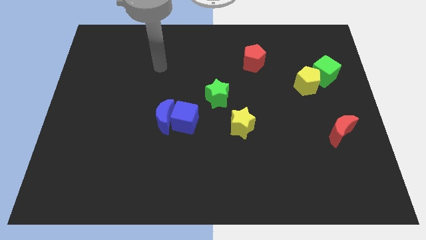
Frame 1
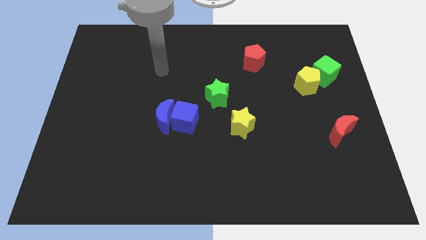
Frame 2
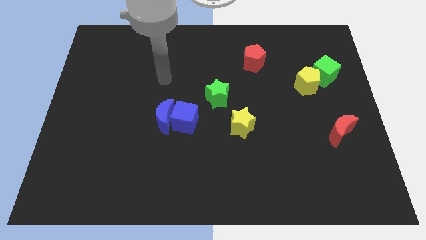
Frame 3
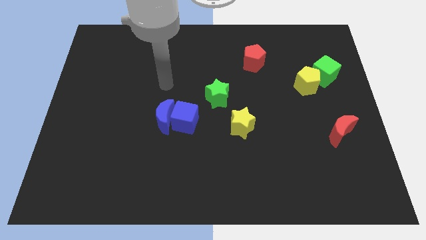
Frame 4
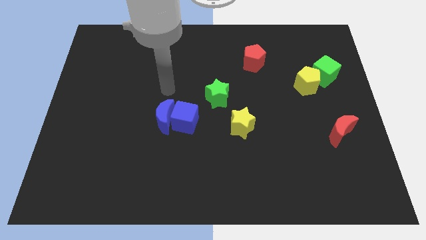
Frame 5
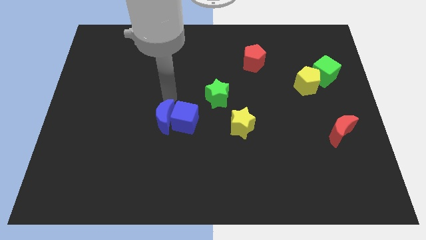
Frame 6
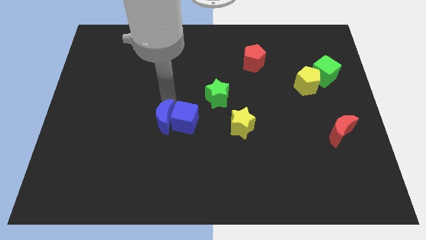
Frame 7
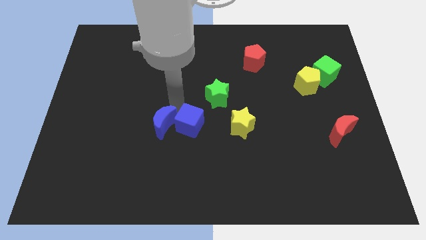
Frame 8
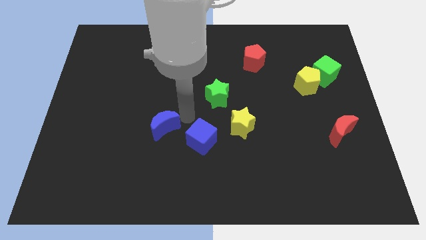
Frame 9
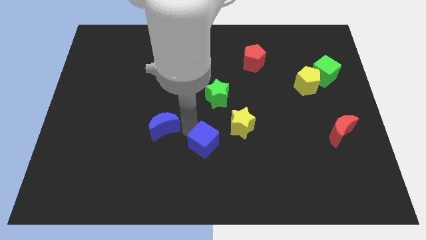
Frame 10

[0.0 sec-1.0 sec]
separate the blue moon from the blue cube

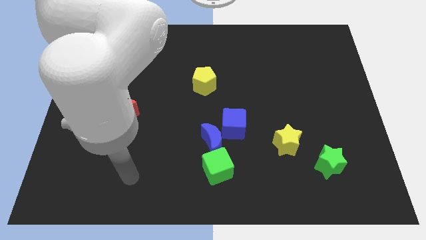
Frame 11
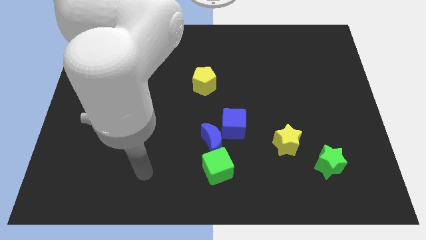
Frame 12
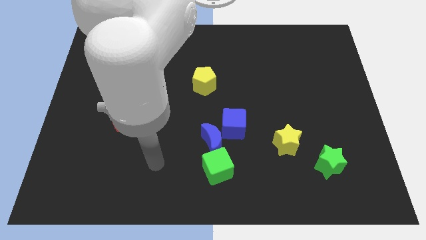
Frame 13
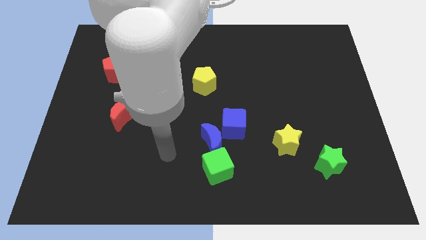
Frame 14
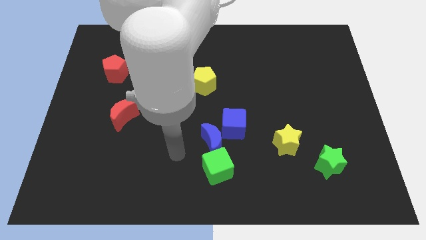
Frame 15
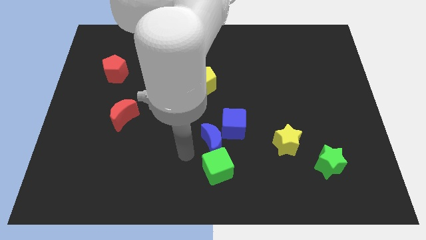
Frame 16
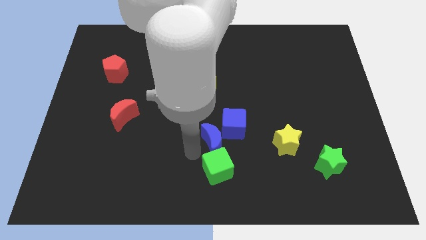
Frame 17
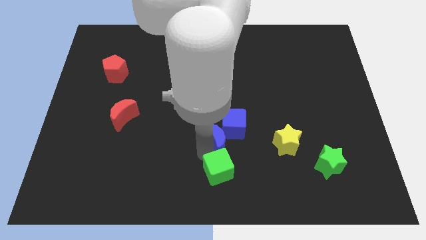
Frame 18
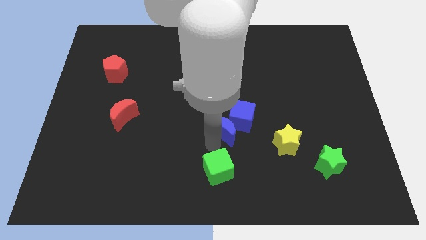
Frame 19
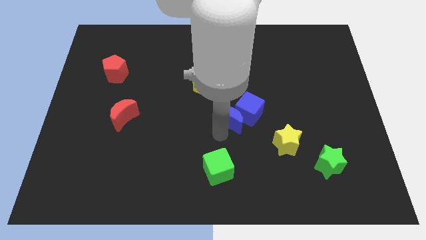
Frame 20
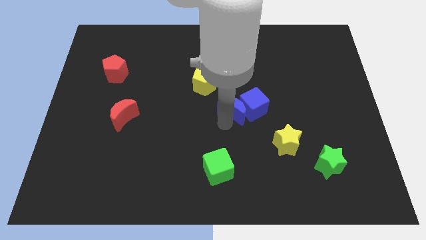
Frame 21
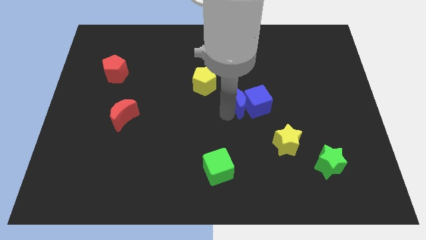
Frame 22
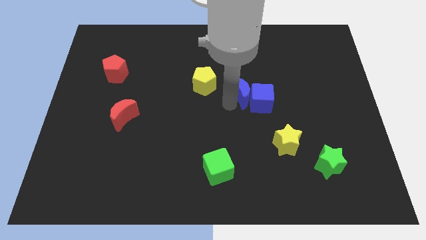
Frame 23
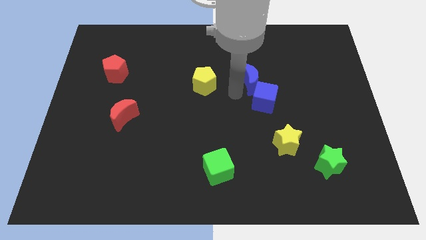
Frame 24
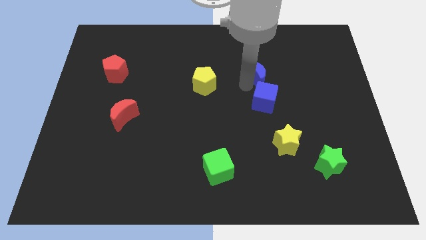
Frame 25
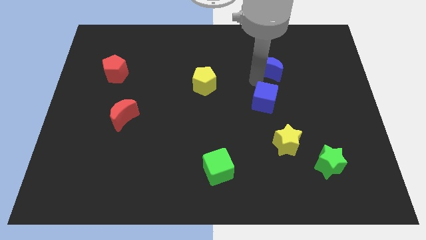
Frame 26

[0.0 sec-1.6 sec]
separate the blue cube from the blue moon

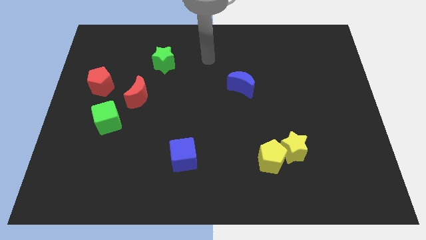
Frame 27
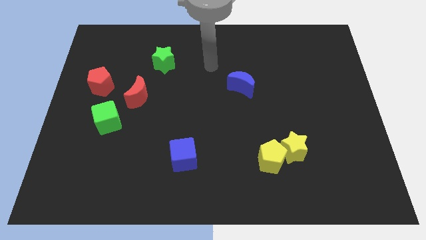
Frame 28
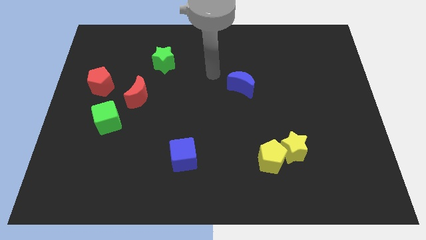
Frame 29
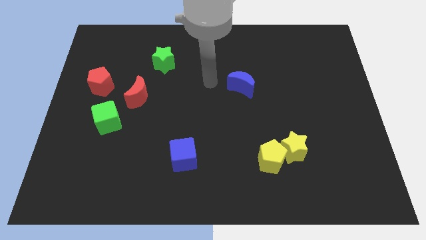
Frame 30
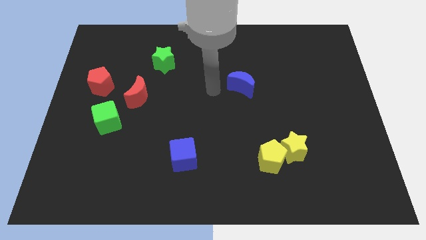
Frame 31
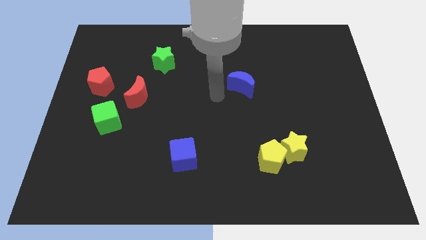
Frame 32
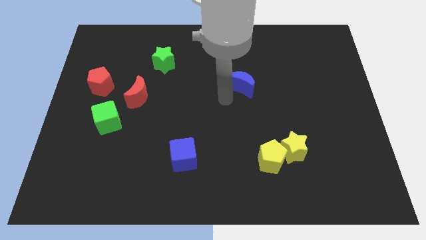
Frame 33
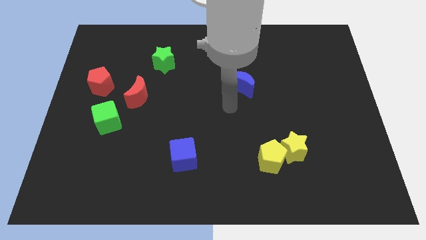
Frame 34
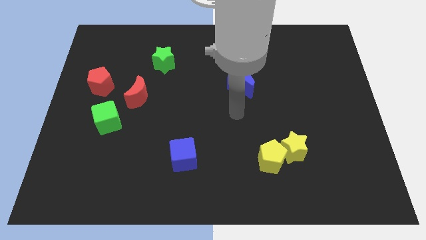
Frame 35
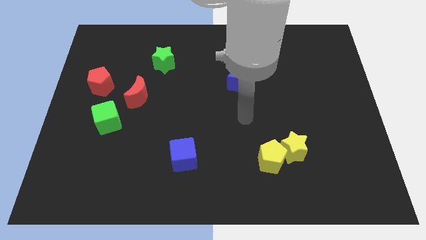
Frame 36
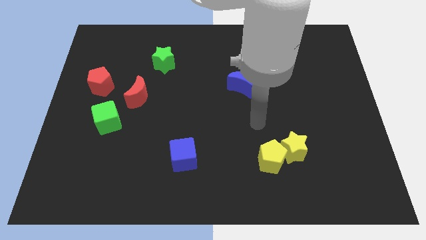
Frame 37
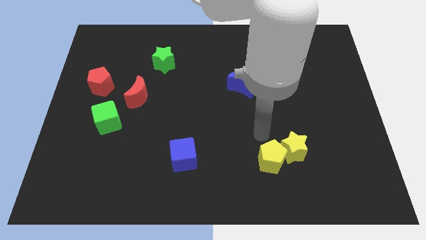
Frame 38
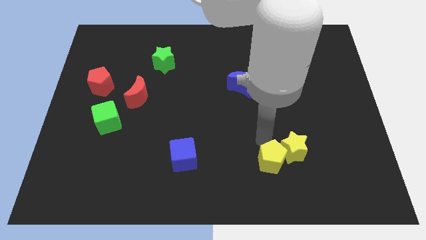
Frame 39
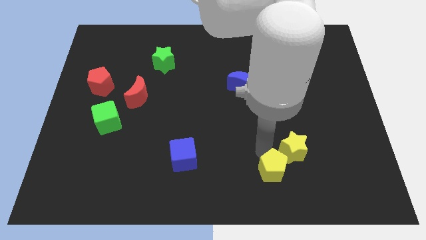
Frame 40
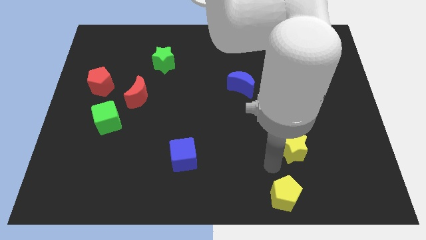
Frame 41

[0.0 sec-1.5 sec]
move the yellow star away from the yellow pentagon

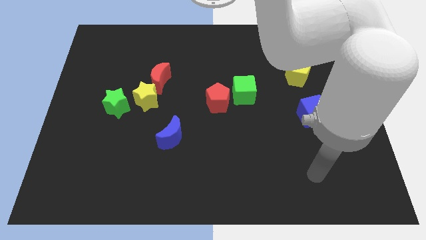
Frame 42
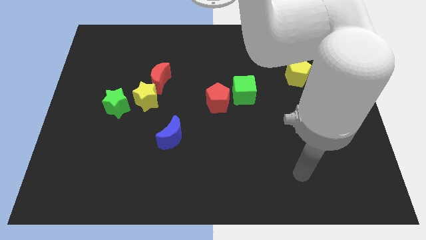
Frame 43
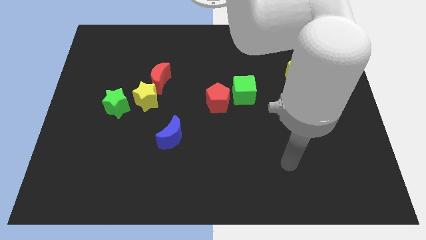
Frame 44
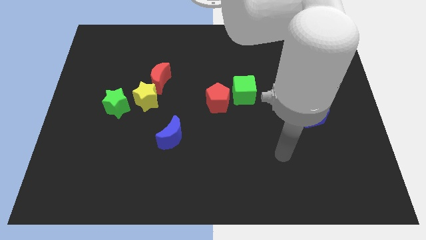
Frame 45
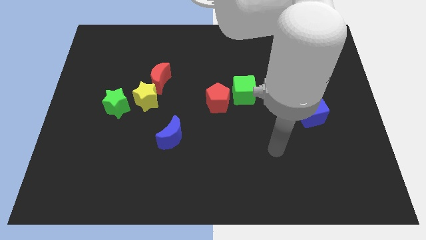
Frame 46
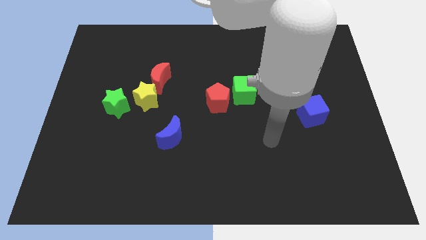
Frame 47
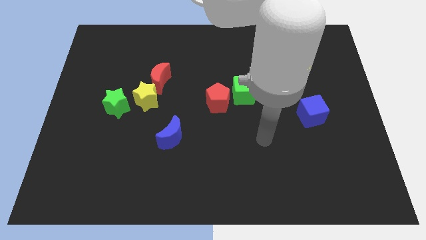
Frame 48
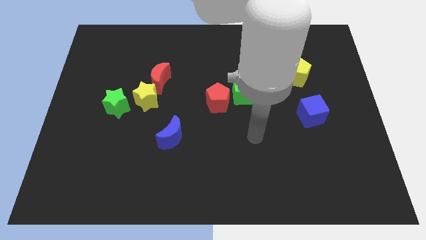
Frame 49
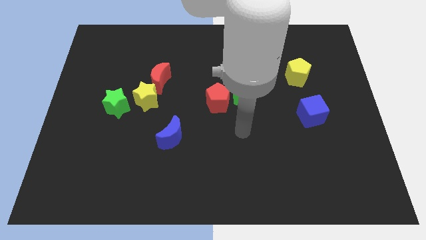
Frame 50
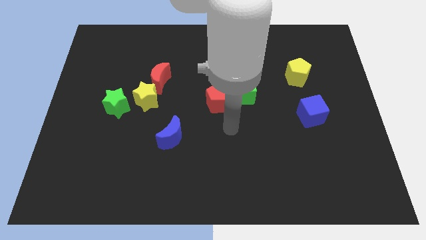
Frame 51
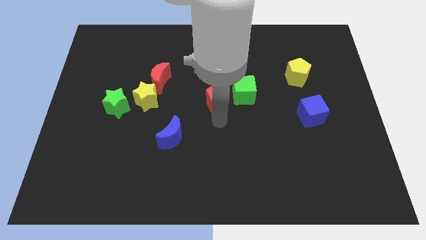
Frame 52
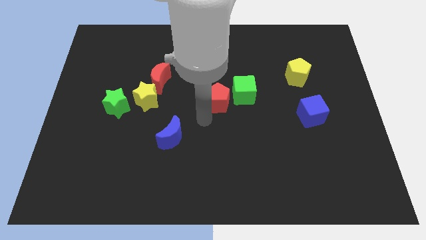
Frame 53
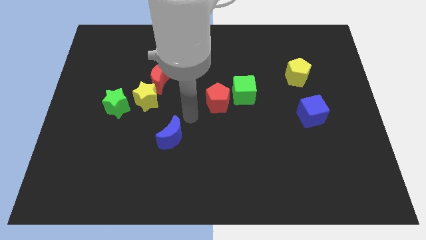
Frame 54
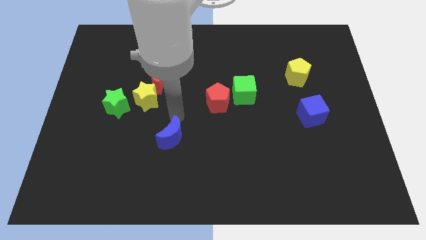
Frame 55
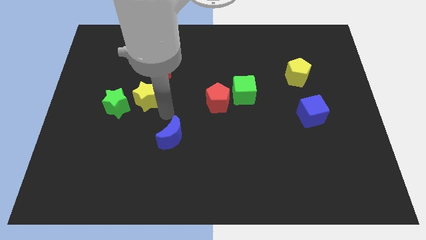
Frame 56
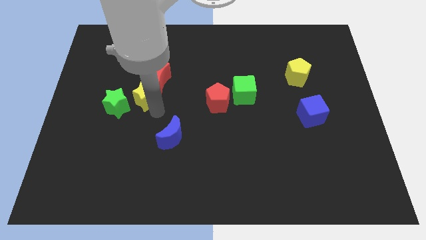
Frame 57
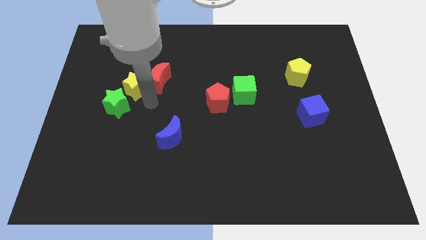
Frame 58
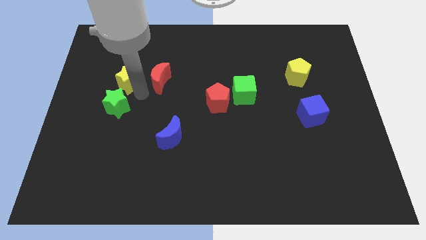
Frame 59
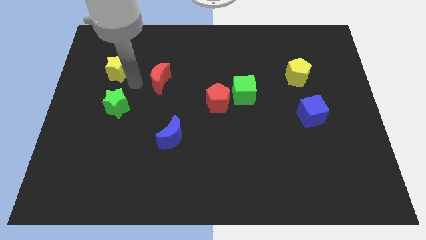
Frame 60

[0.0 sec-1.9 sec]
move the red moon away from the yellow star

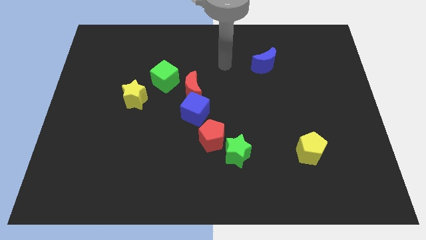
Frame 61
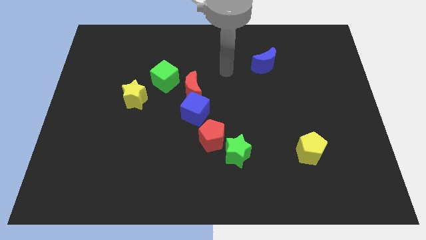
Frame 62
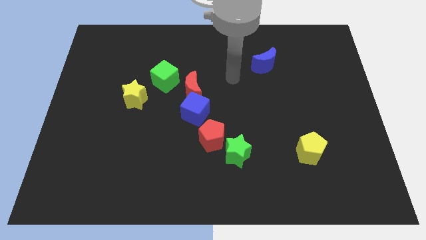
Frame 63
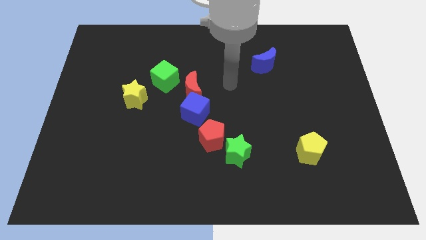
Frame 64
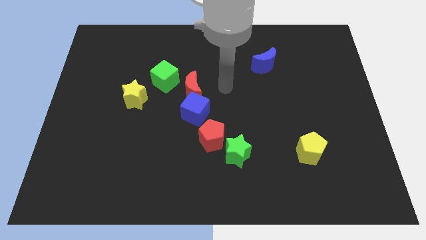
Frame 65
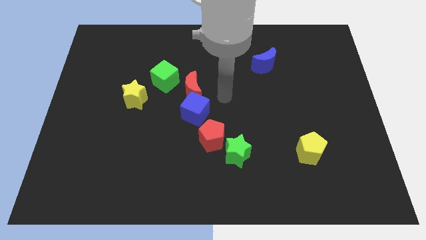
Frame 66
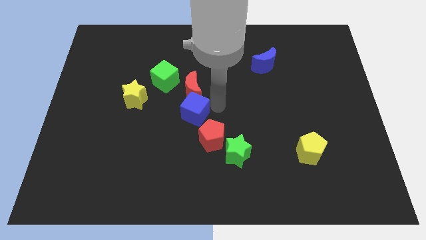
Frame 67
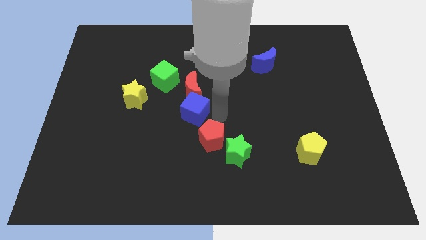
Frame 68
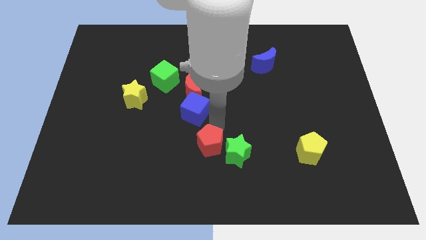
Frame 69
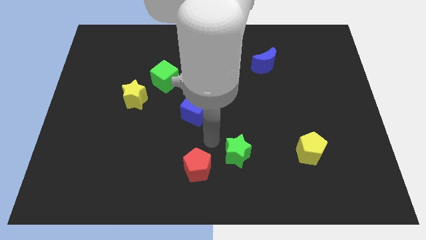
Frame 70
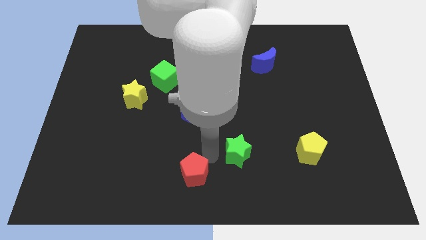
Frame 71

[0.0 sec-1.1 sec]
move the green star away from the red pentagon

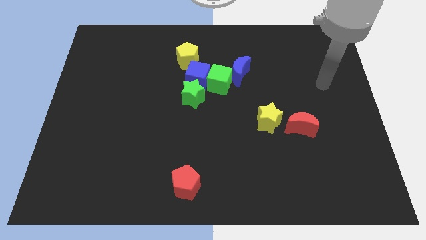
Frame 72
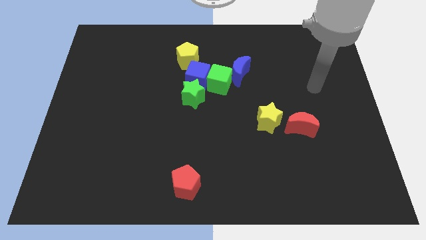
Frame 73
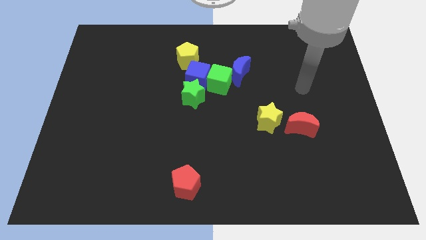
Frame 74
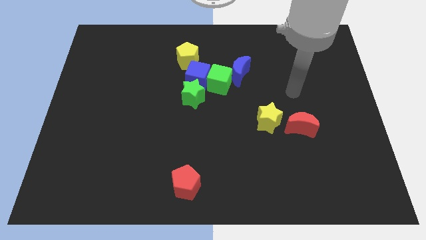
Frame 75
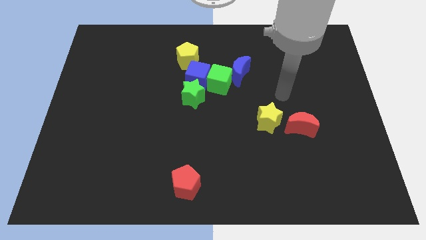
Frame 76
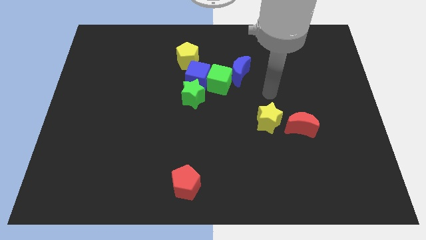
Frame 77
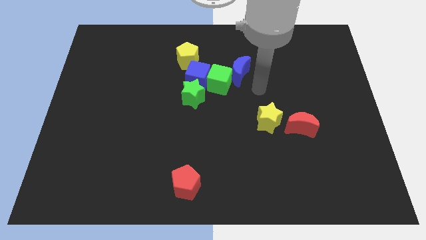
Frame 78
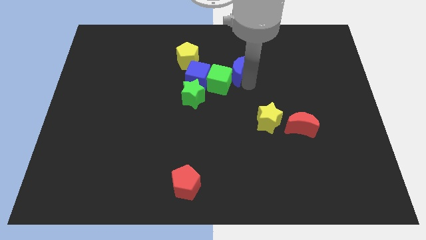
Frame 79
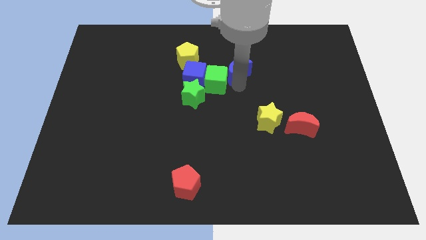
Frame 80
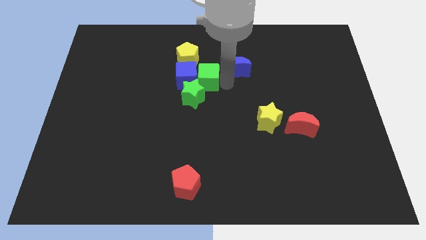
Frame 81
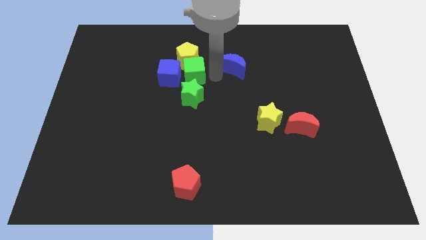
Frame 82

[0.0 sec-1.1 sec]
pull the blue moon apart from the green cube

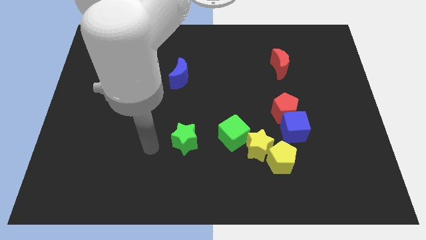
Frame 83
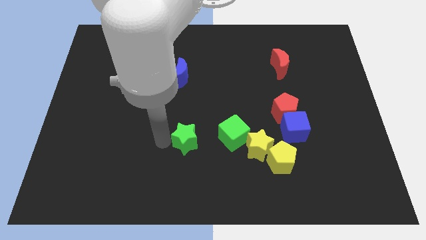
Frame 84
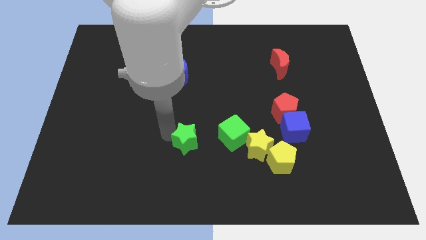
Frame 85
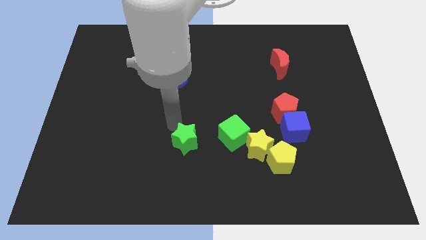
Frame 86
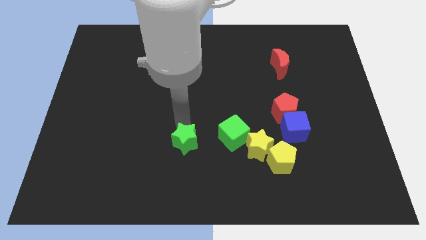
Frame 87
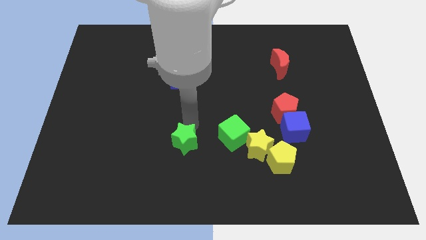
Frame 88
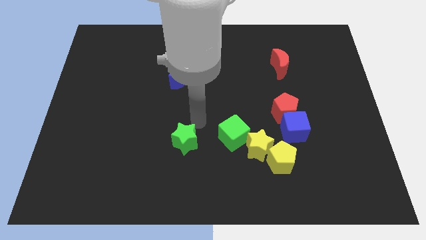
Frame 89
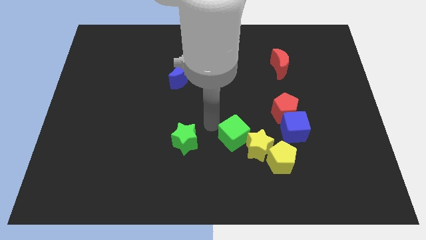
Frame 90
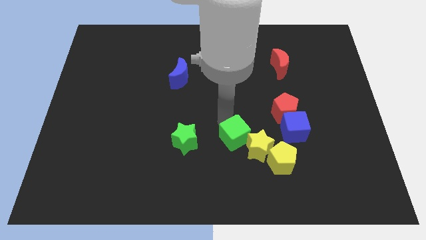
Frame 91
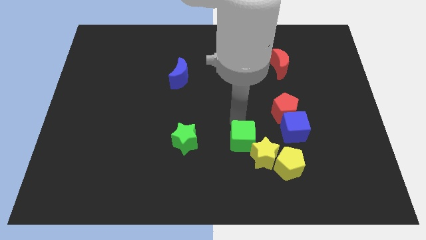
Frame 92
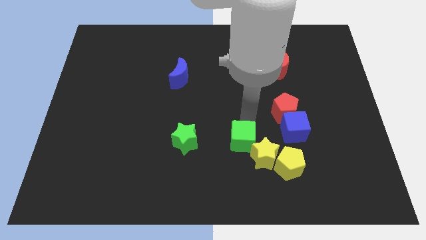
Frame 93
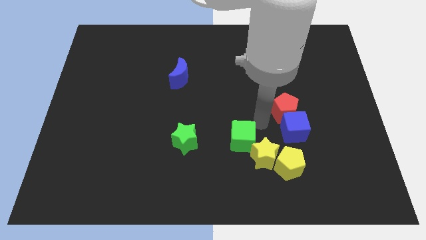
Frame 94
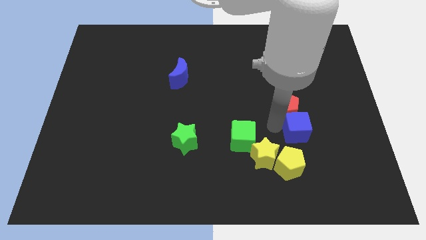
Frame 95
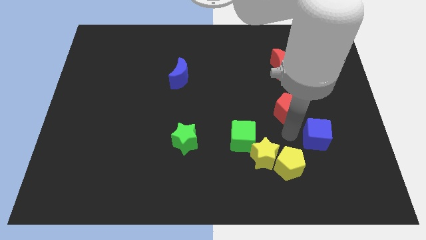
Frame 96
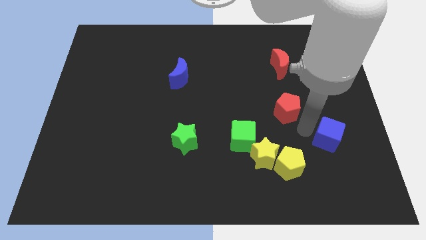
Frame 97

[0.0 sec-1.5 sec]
pull the red pentagon apart from the blue cube
